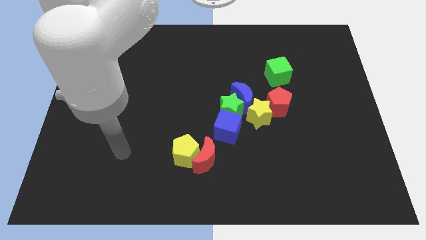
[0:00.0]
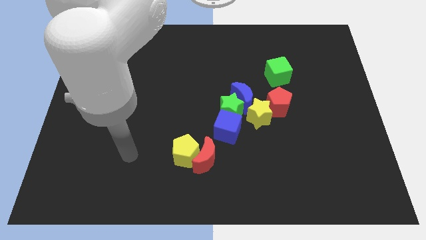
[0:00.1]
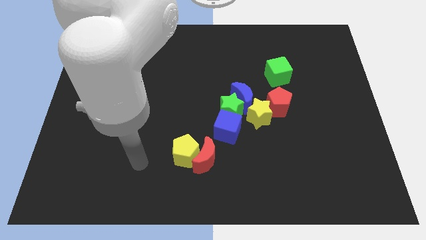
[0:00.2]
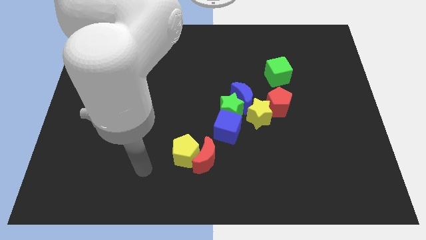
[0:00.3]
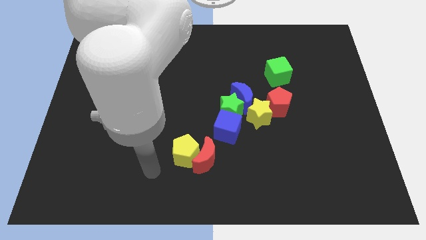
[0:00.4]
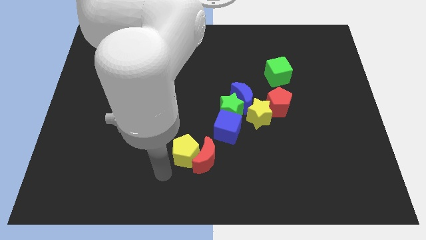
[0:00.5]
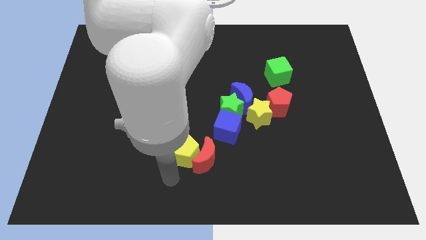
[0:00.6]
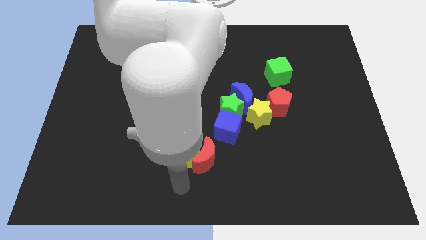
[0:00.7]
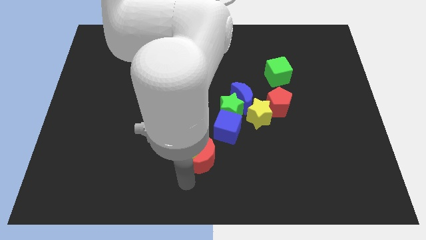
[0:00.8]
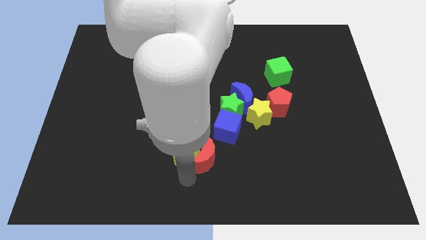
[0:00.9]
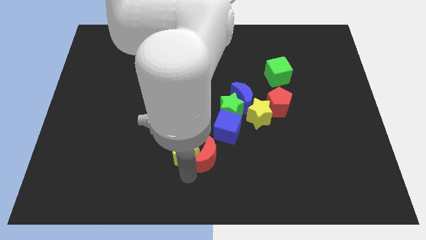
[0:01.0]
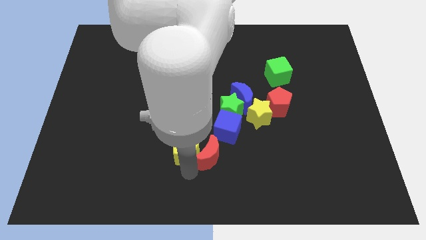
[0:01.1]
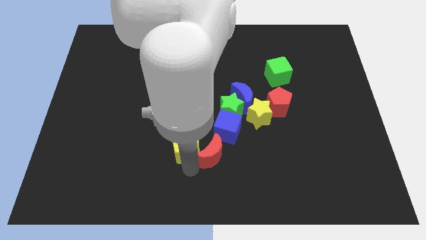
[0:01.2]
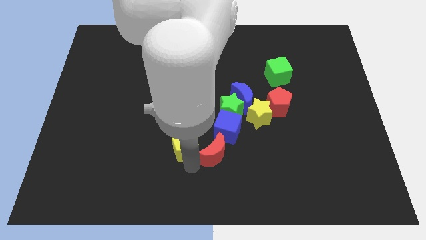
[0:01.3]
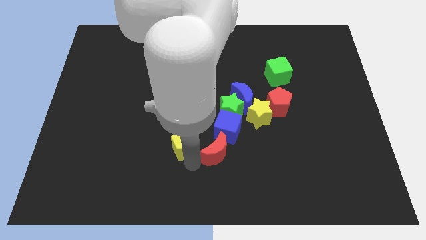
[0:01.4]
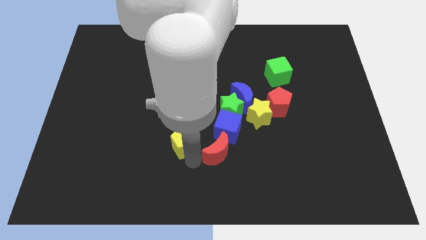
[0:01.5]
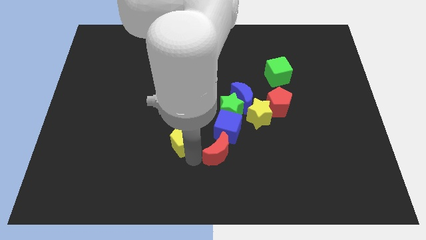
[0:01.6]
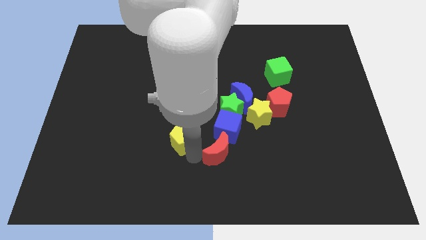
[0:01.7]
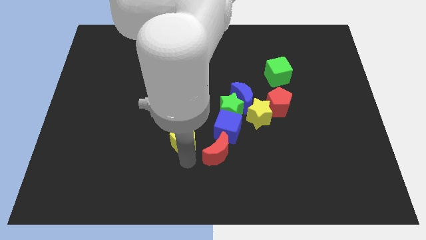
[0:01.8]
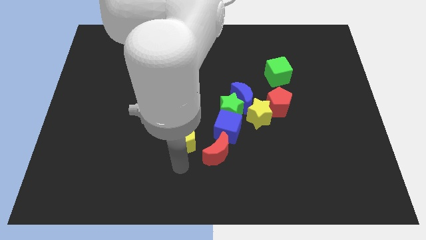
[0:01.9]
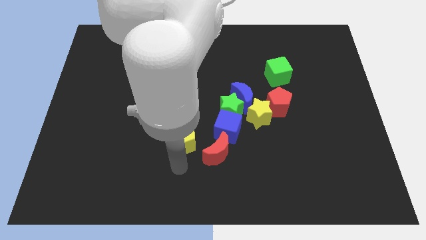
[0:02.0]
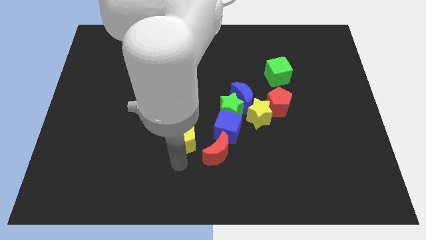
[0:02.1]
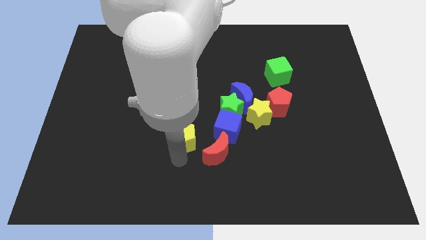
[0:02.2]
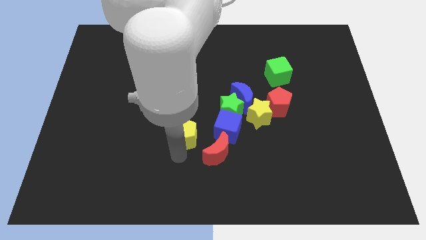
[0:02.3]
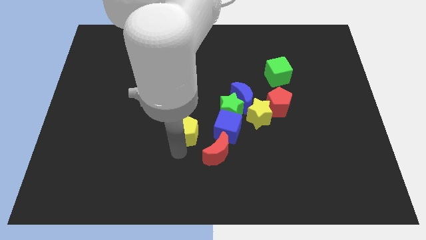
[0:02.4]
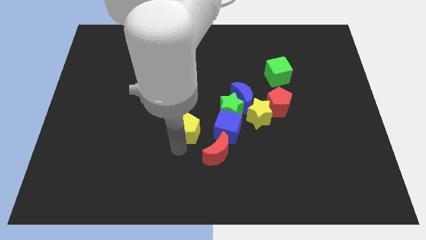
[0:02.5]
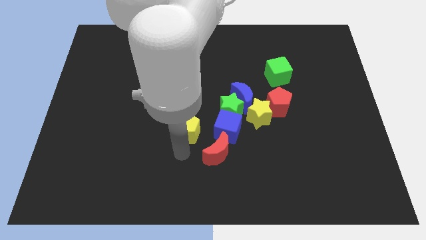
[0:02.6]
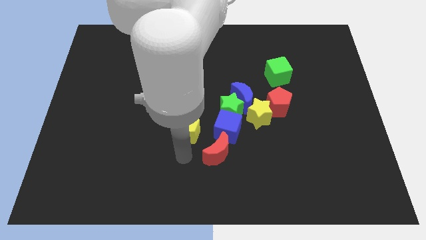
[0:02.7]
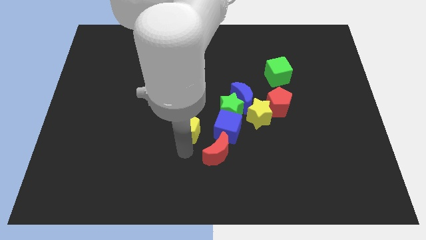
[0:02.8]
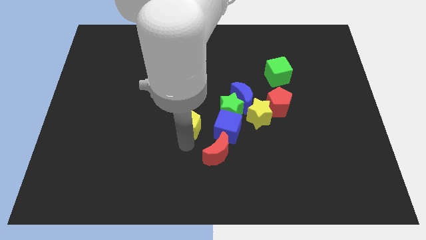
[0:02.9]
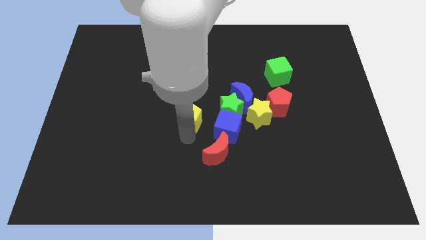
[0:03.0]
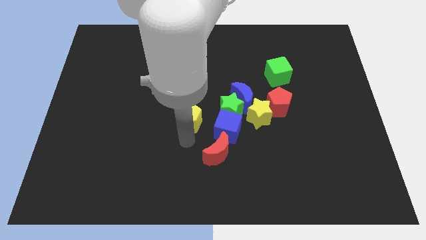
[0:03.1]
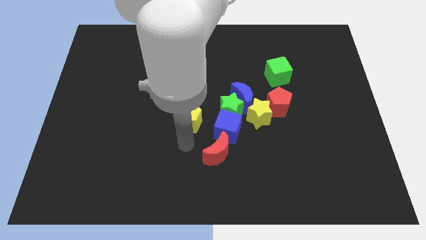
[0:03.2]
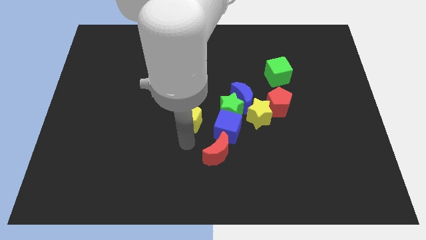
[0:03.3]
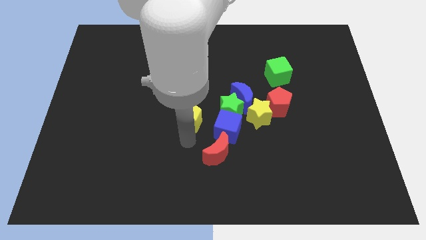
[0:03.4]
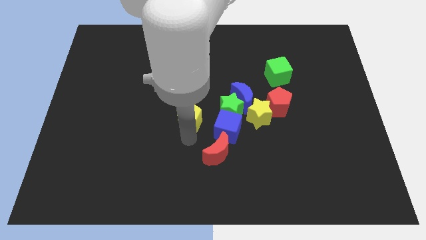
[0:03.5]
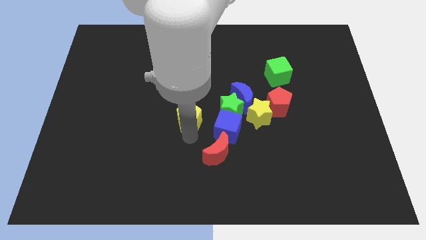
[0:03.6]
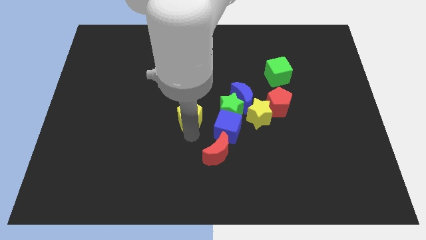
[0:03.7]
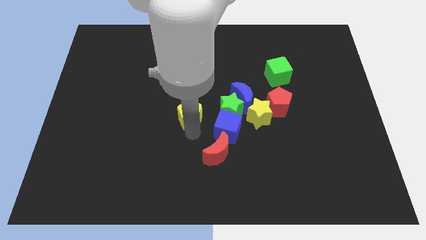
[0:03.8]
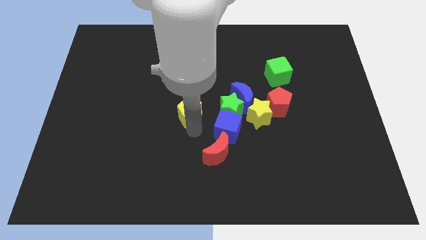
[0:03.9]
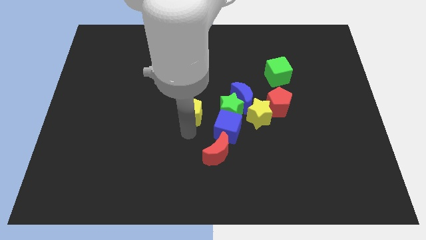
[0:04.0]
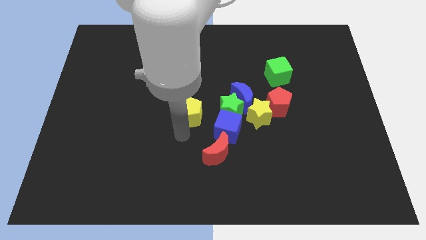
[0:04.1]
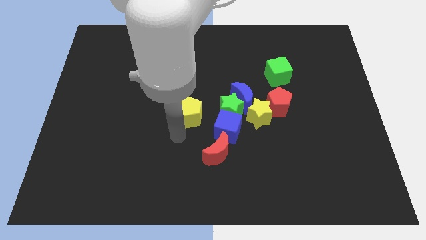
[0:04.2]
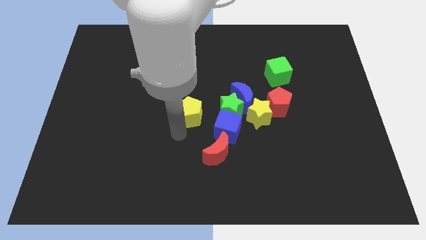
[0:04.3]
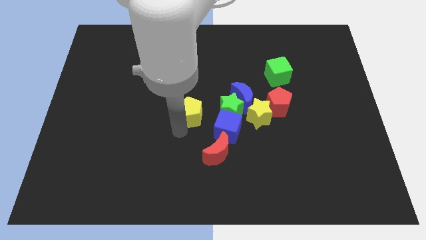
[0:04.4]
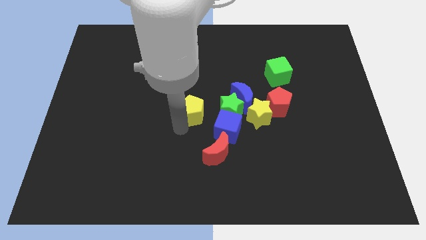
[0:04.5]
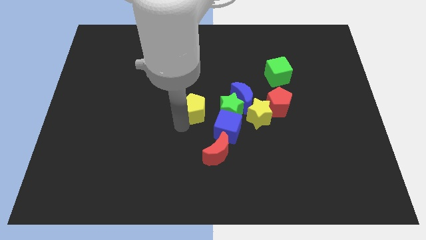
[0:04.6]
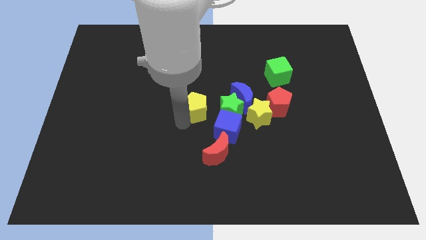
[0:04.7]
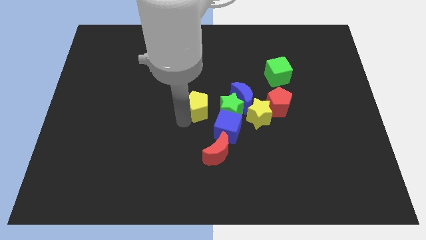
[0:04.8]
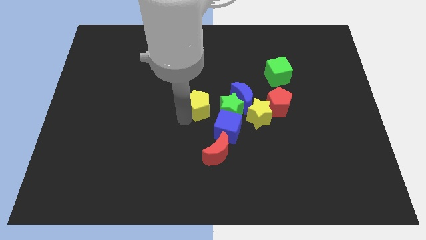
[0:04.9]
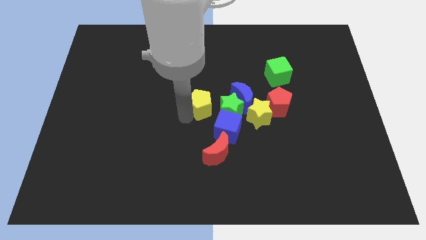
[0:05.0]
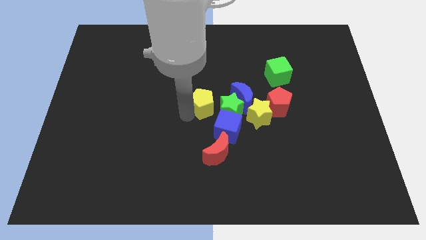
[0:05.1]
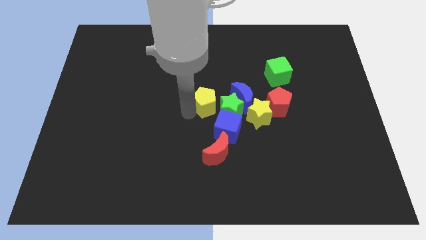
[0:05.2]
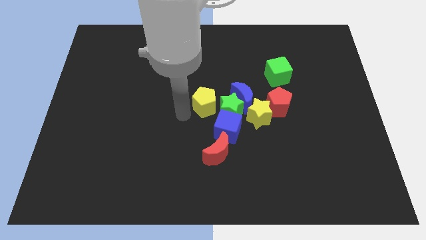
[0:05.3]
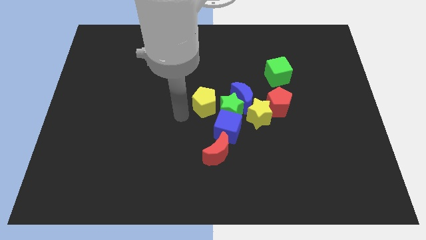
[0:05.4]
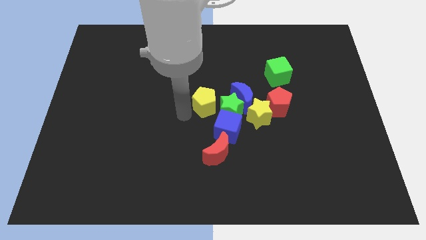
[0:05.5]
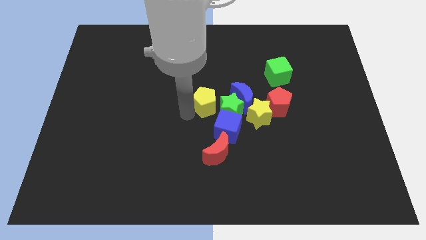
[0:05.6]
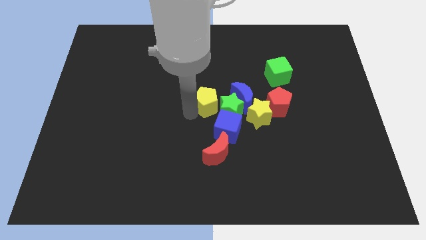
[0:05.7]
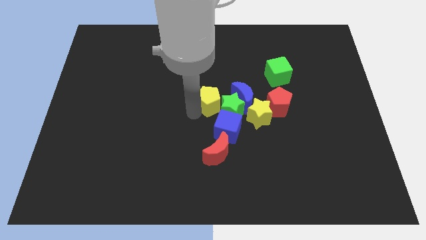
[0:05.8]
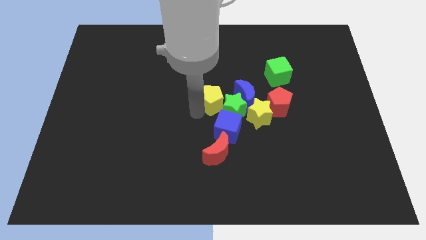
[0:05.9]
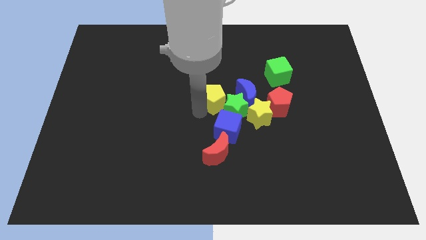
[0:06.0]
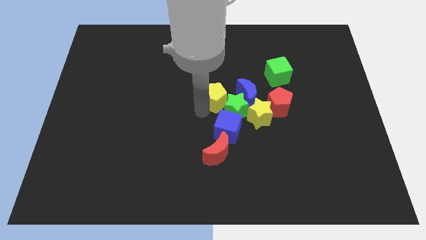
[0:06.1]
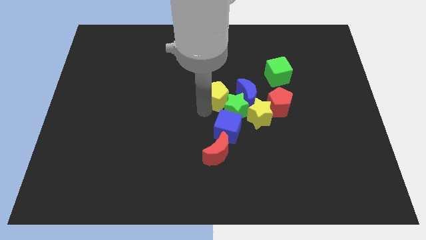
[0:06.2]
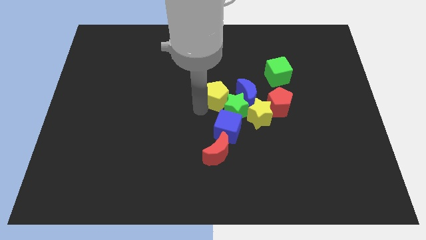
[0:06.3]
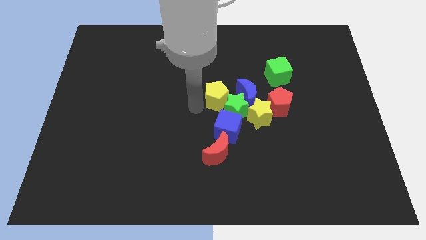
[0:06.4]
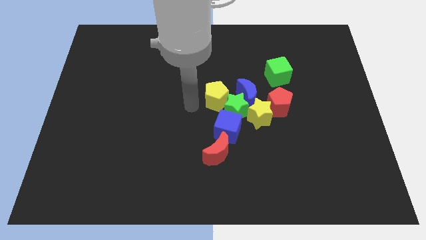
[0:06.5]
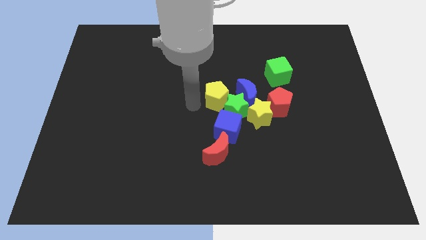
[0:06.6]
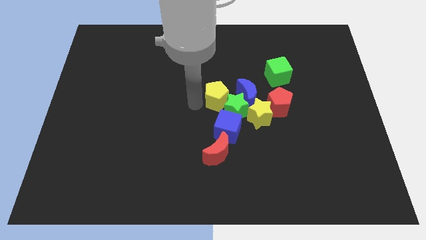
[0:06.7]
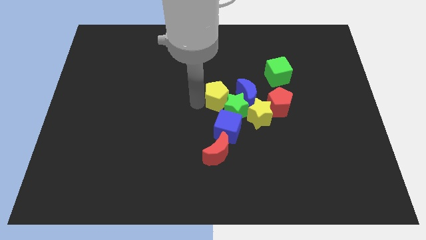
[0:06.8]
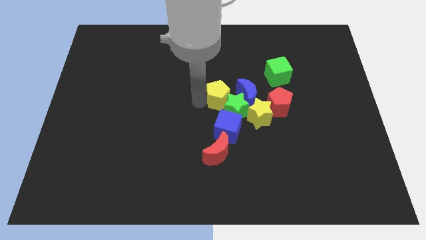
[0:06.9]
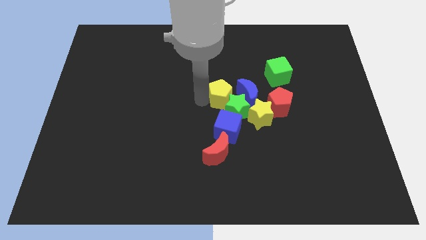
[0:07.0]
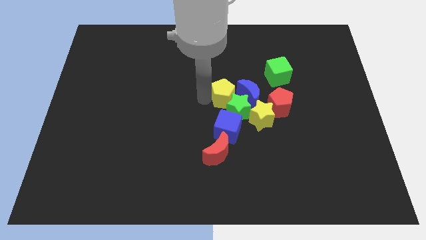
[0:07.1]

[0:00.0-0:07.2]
push the yellow pentagon towards the blue moon
